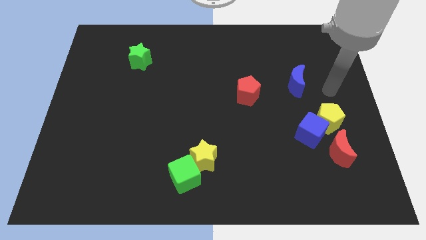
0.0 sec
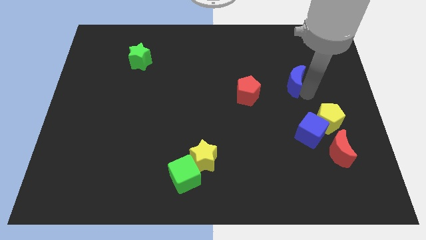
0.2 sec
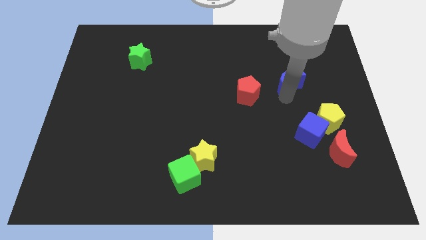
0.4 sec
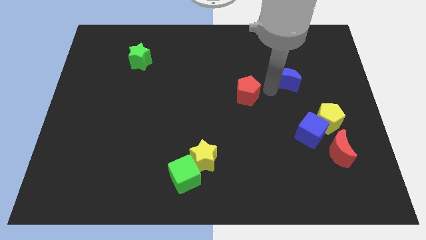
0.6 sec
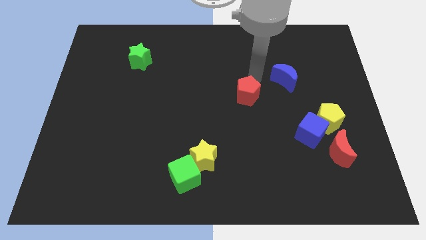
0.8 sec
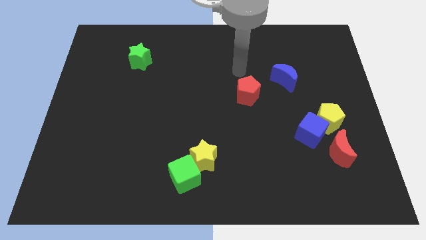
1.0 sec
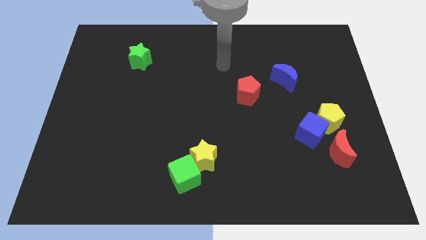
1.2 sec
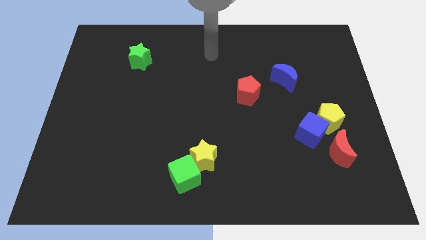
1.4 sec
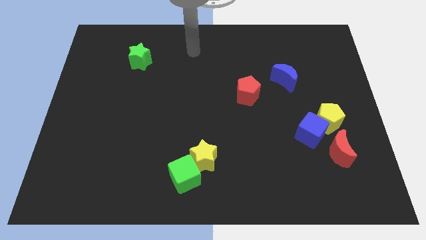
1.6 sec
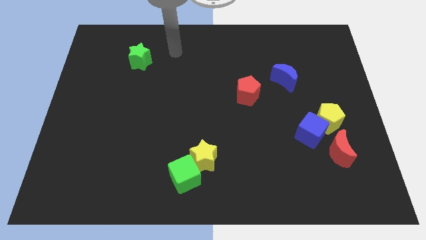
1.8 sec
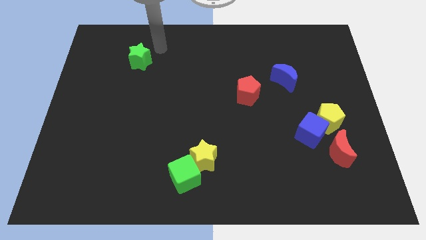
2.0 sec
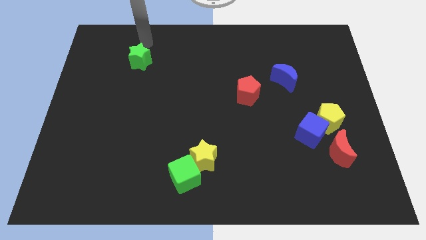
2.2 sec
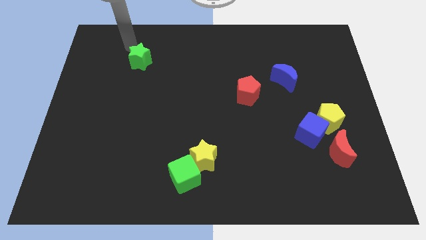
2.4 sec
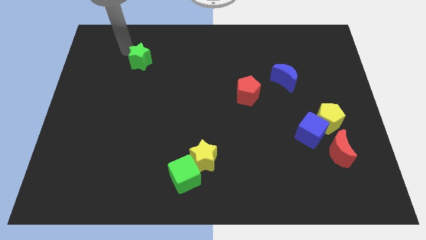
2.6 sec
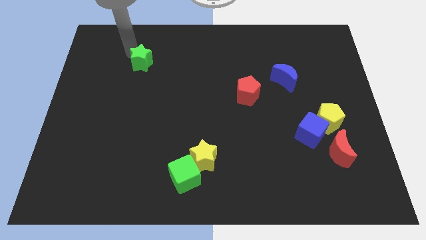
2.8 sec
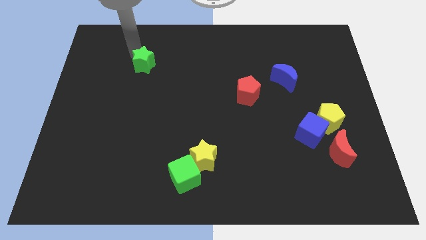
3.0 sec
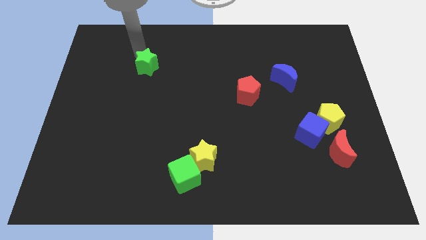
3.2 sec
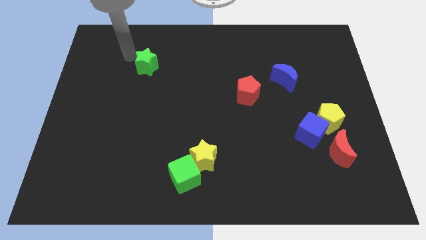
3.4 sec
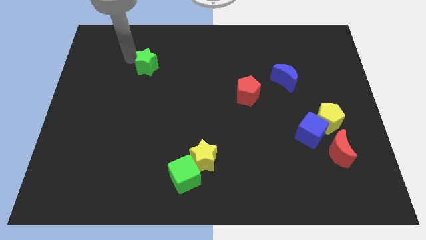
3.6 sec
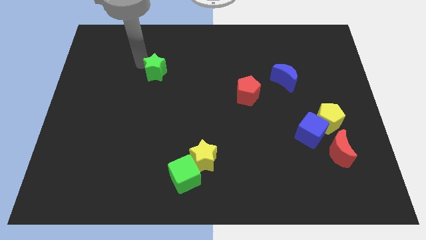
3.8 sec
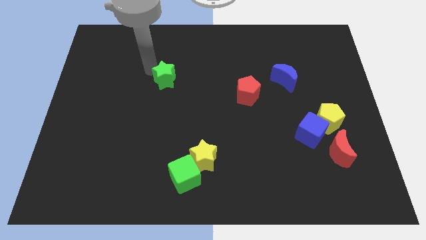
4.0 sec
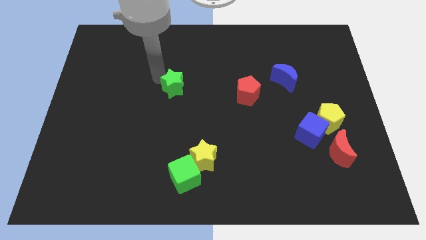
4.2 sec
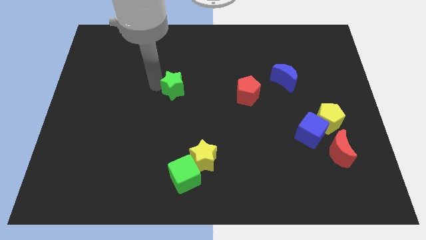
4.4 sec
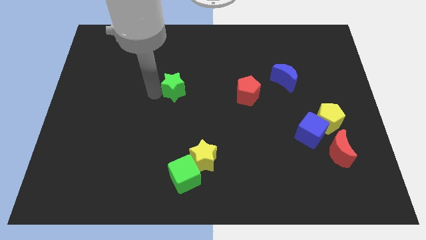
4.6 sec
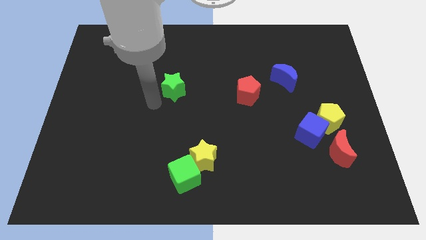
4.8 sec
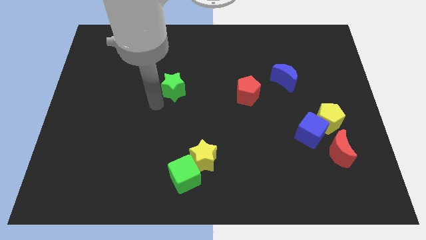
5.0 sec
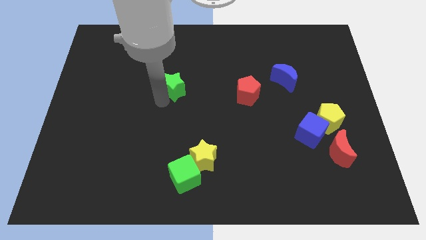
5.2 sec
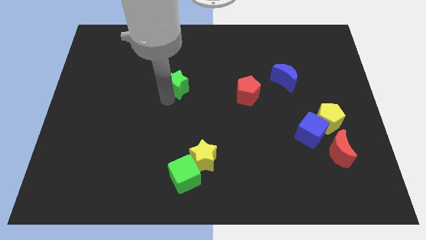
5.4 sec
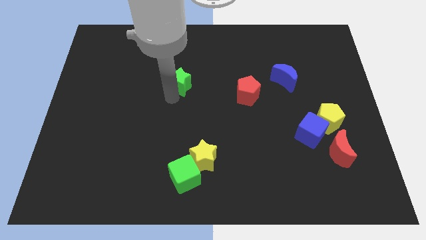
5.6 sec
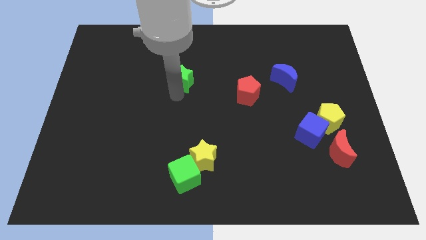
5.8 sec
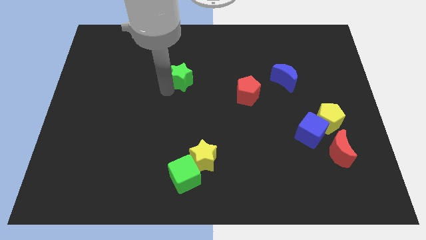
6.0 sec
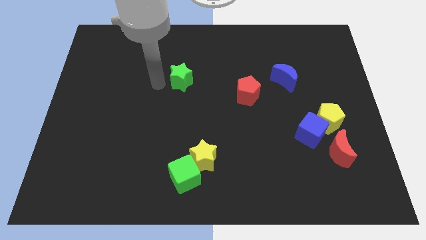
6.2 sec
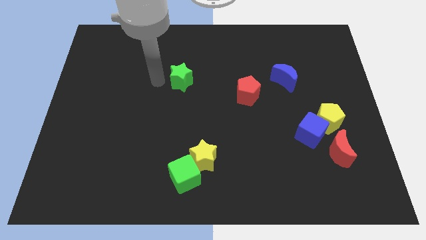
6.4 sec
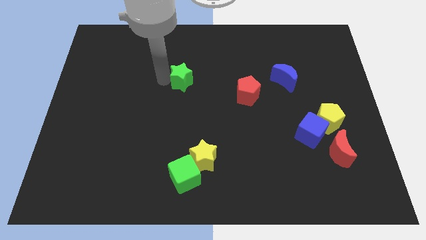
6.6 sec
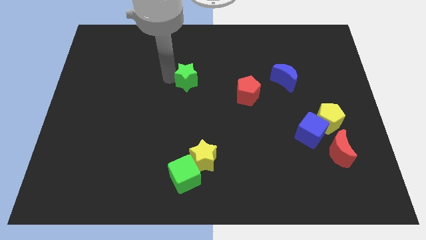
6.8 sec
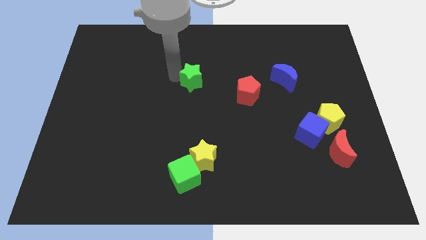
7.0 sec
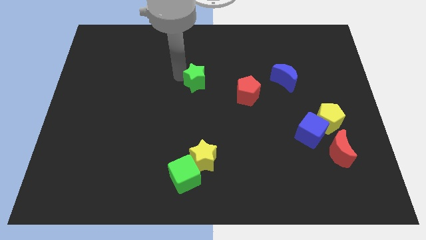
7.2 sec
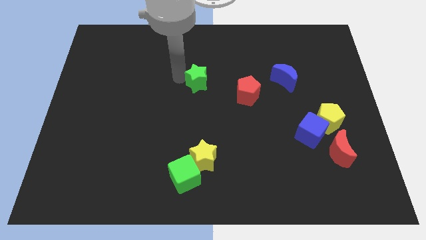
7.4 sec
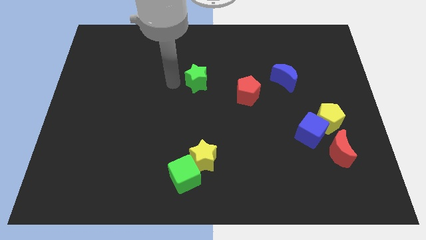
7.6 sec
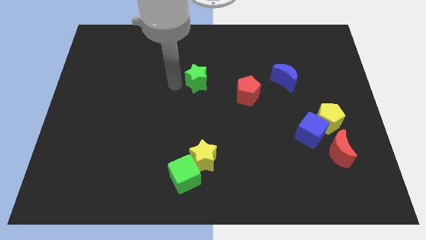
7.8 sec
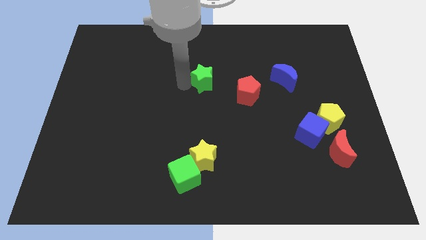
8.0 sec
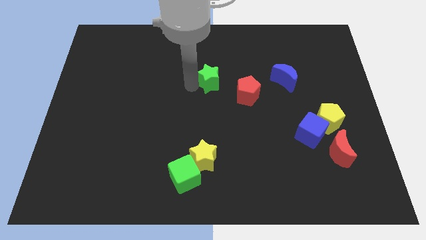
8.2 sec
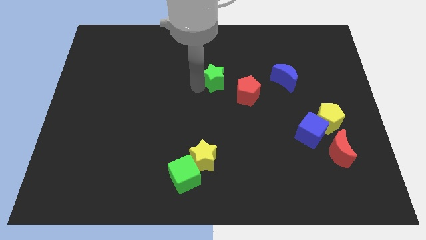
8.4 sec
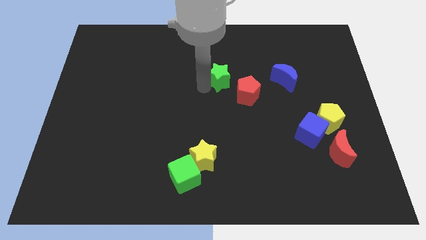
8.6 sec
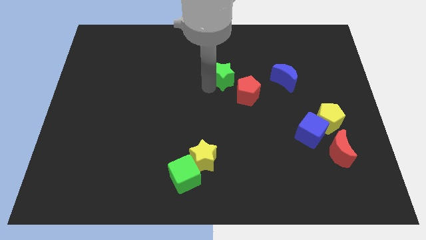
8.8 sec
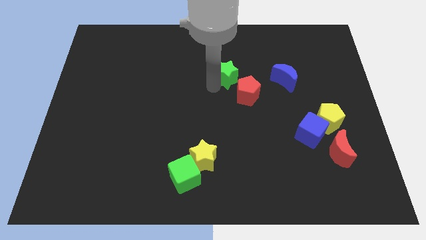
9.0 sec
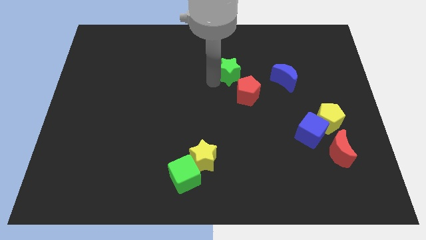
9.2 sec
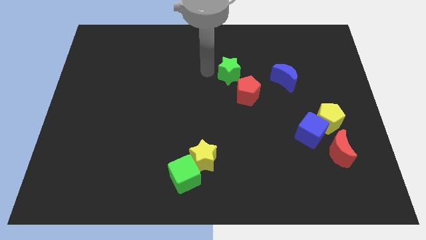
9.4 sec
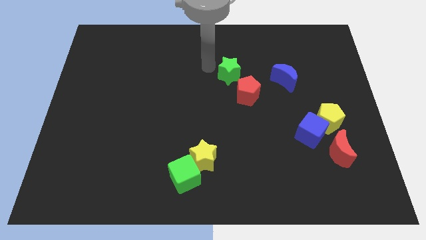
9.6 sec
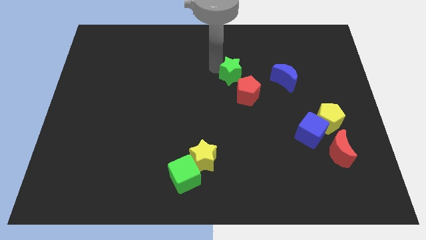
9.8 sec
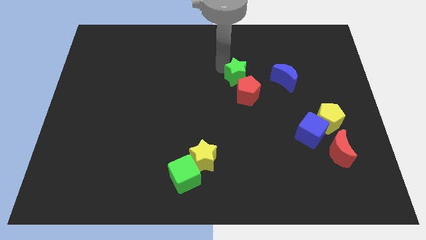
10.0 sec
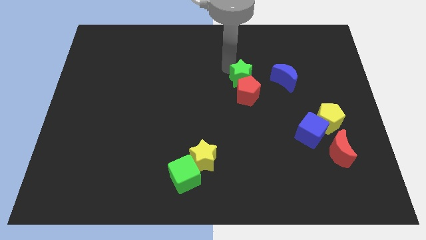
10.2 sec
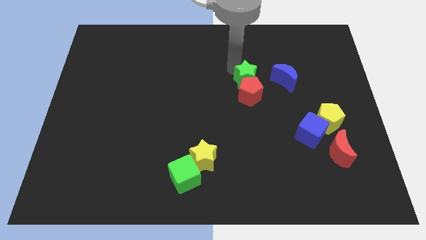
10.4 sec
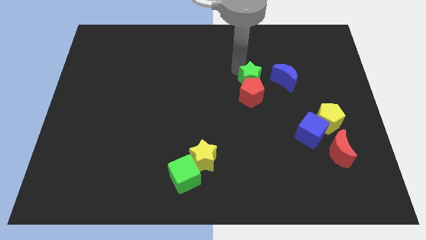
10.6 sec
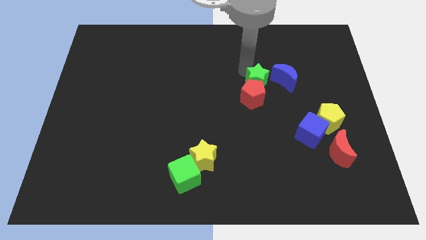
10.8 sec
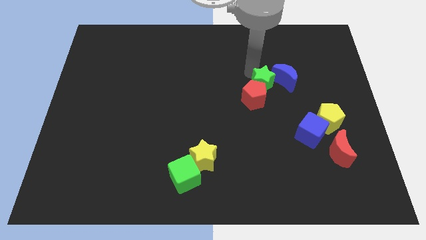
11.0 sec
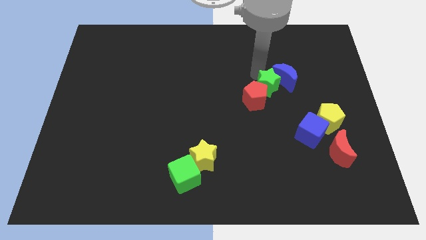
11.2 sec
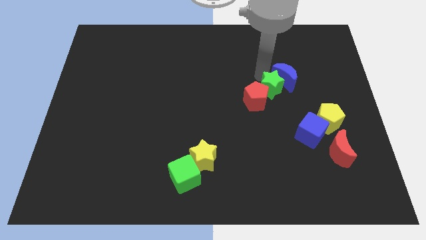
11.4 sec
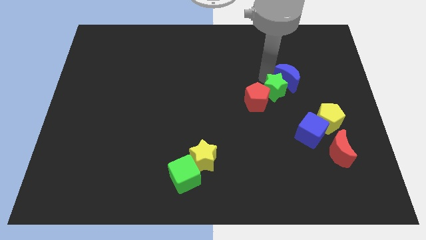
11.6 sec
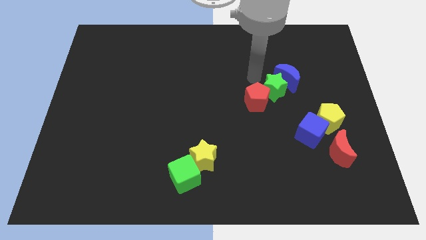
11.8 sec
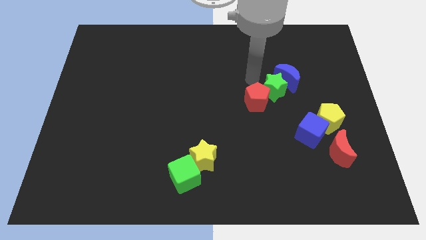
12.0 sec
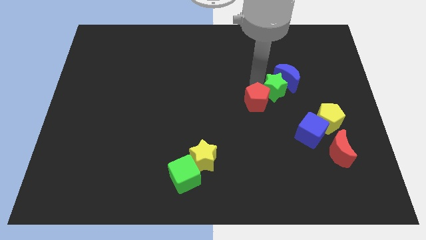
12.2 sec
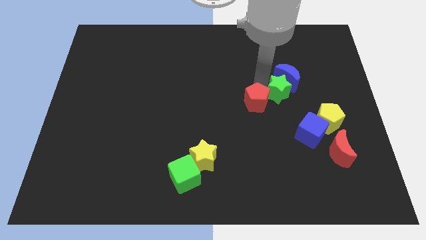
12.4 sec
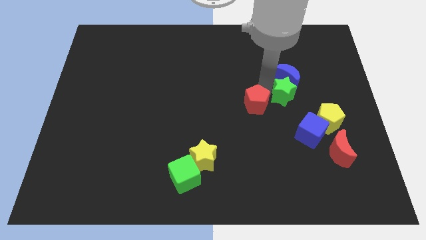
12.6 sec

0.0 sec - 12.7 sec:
push the green star to the top left of the yellow pentagon

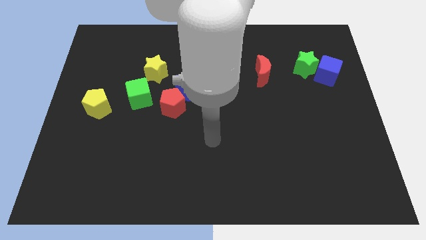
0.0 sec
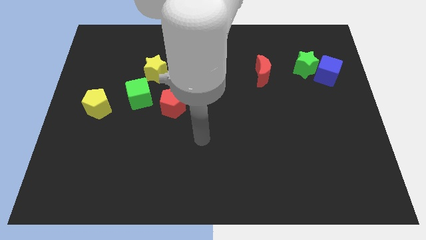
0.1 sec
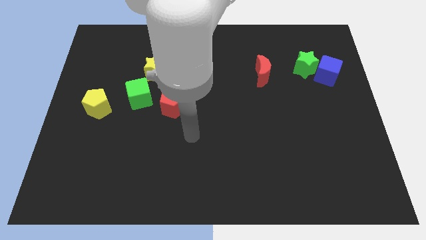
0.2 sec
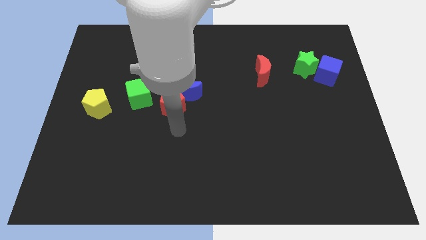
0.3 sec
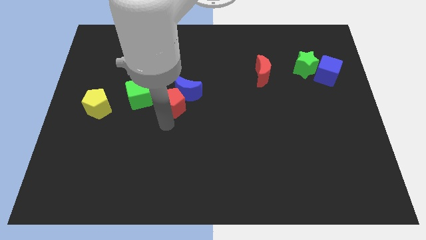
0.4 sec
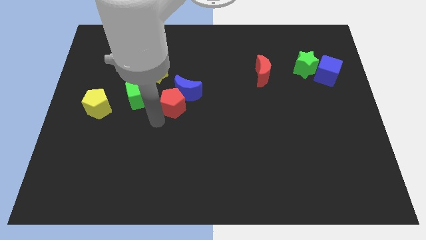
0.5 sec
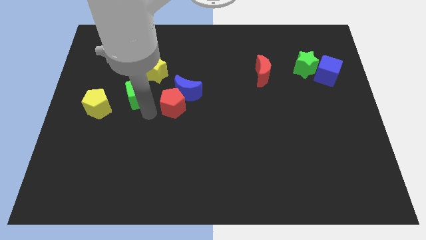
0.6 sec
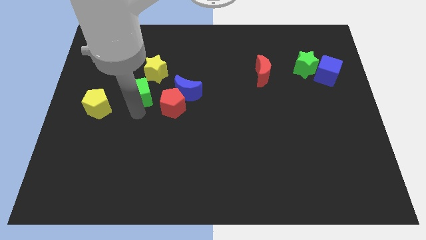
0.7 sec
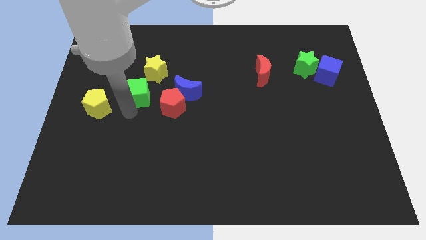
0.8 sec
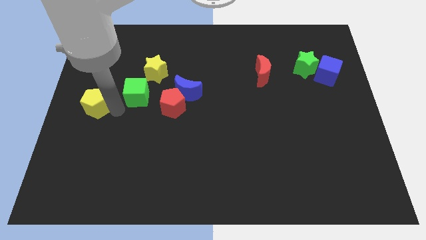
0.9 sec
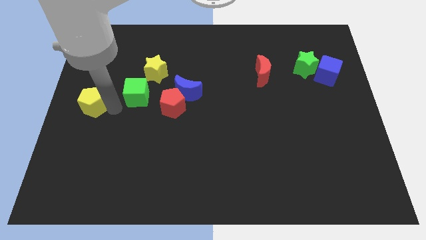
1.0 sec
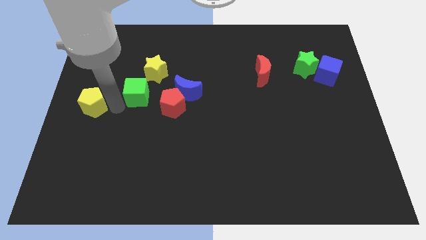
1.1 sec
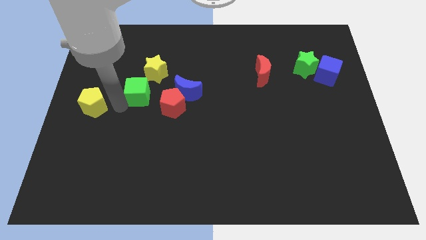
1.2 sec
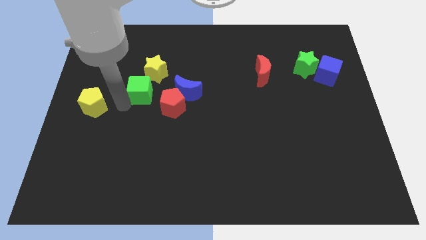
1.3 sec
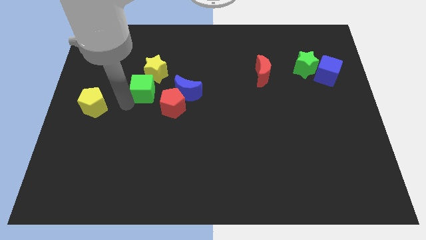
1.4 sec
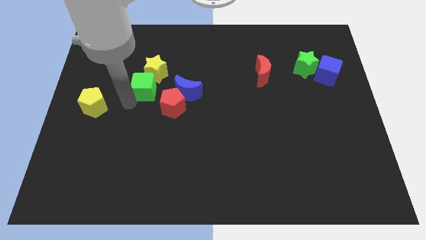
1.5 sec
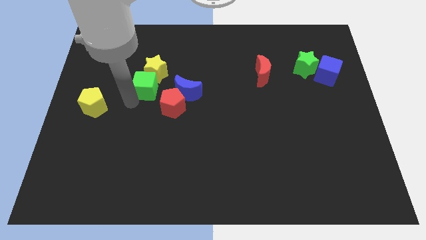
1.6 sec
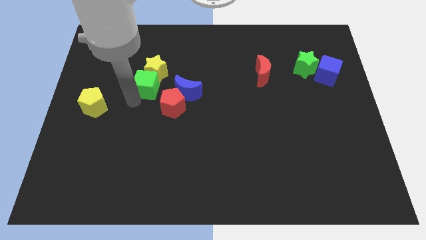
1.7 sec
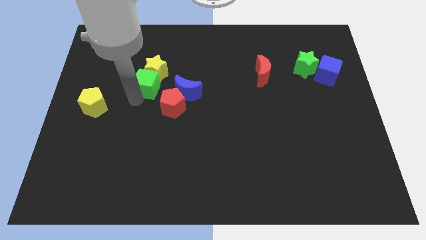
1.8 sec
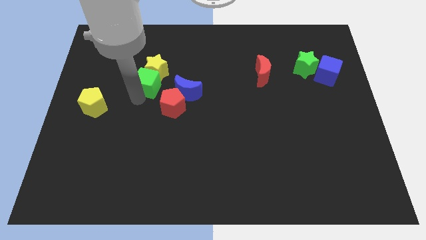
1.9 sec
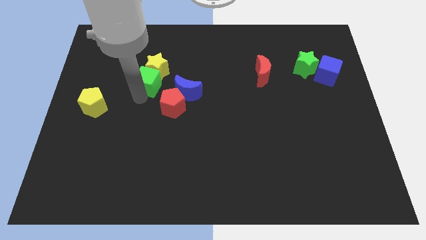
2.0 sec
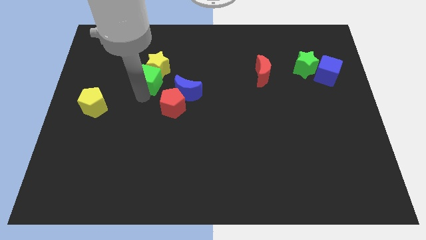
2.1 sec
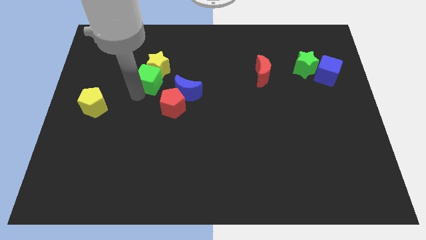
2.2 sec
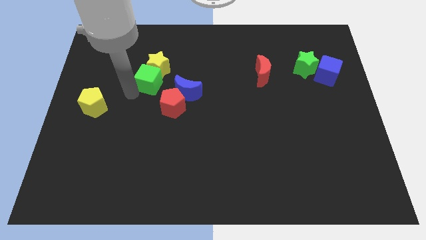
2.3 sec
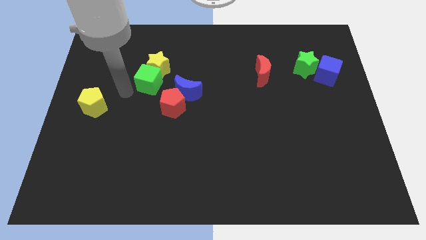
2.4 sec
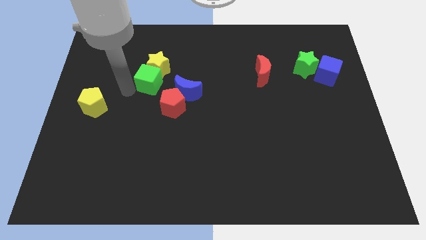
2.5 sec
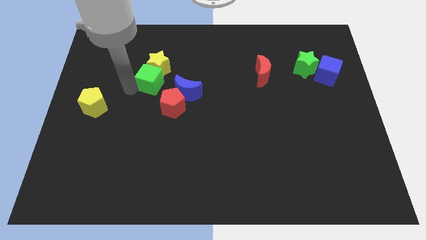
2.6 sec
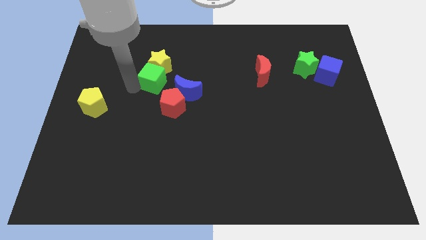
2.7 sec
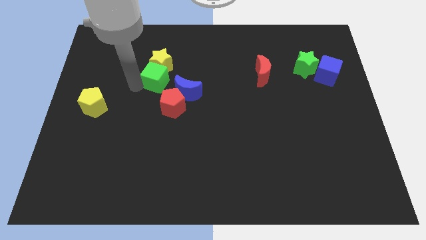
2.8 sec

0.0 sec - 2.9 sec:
slide the green cube to the top of the red pentagon
